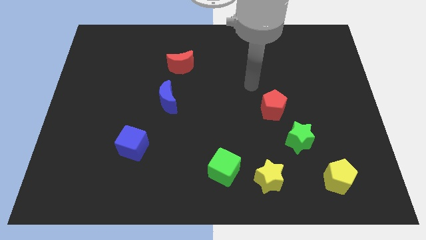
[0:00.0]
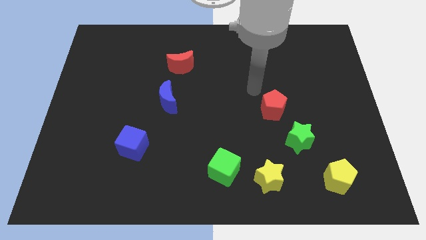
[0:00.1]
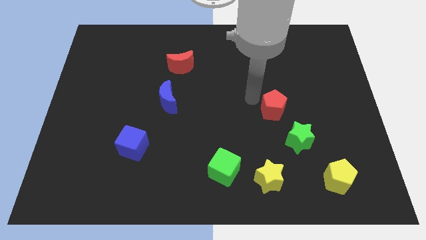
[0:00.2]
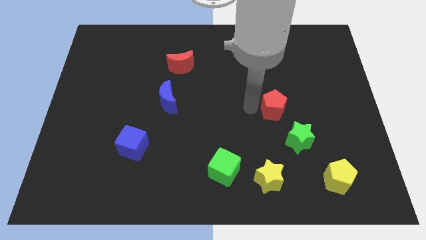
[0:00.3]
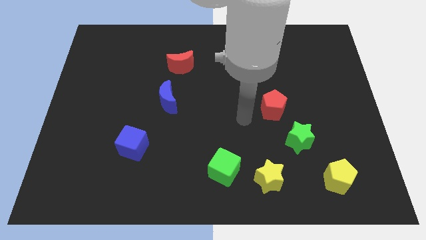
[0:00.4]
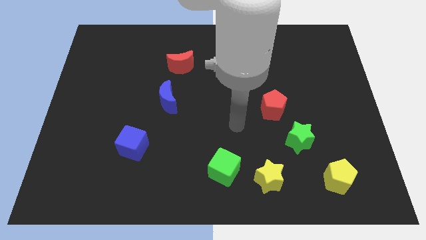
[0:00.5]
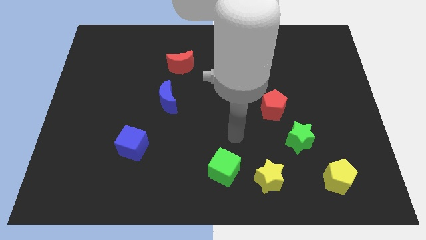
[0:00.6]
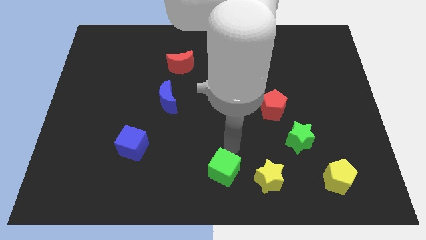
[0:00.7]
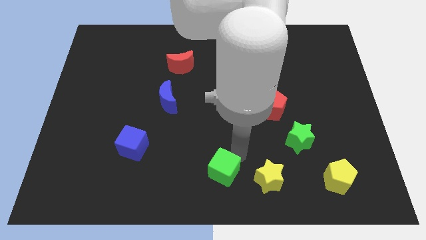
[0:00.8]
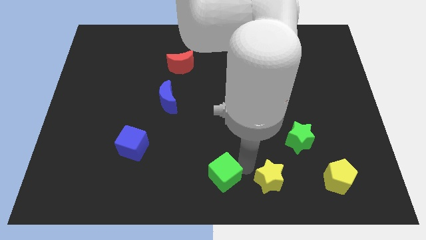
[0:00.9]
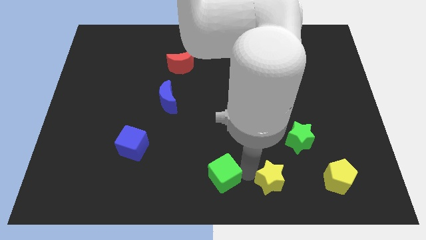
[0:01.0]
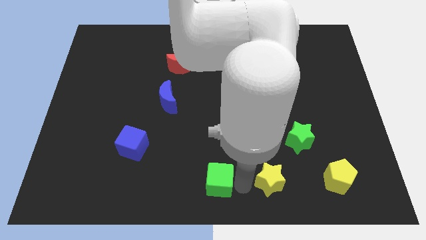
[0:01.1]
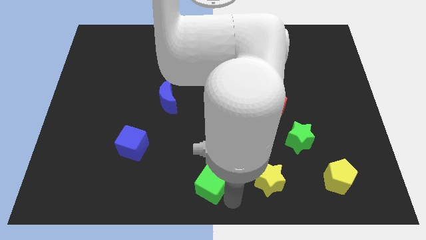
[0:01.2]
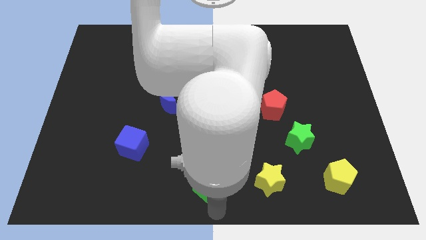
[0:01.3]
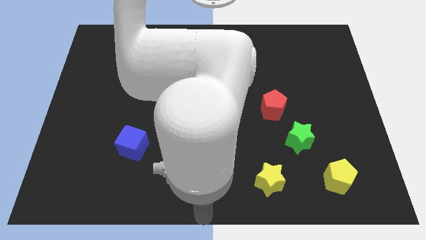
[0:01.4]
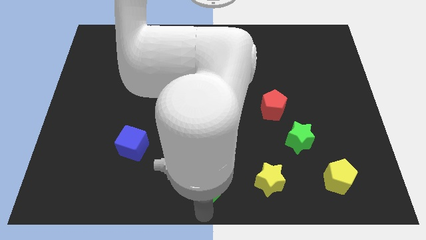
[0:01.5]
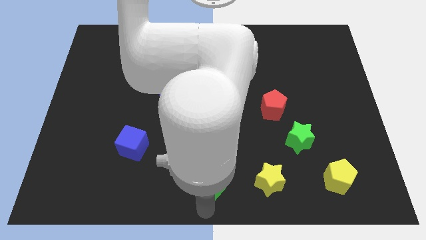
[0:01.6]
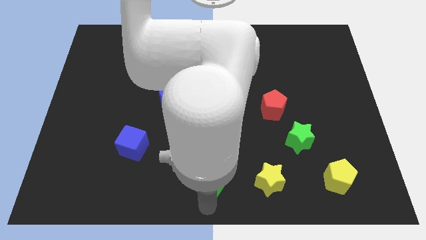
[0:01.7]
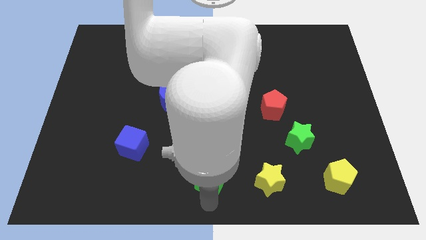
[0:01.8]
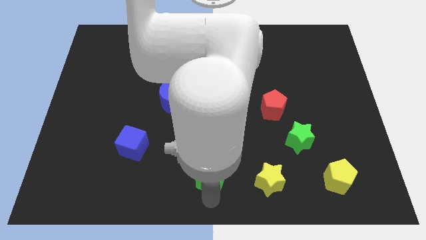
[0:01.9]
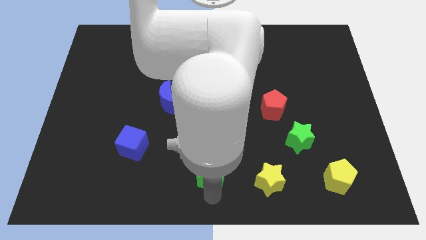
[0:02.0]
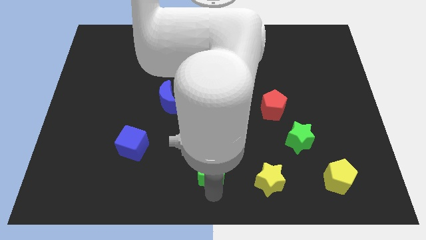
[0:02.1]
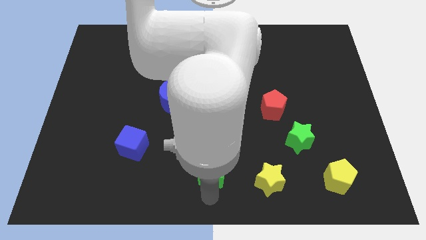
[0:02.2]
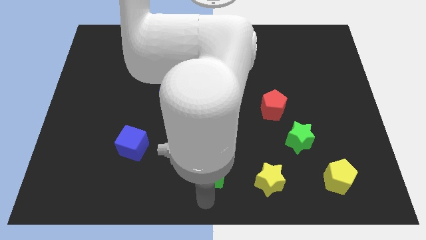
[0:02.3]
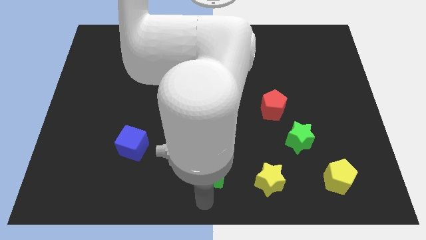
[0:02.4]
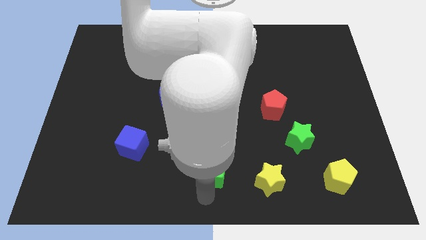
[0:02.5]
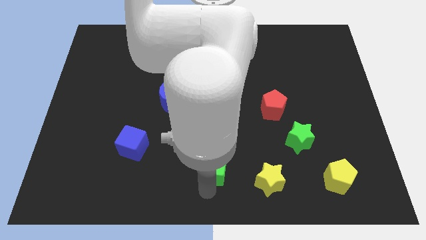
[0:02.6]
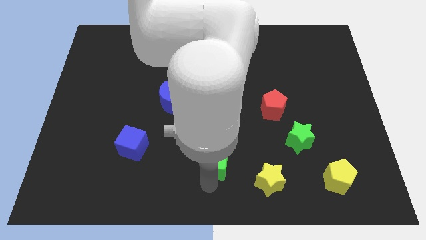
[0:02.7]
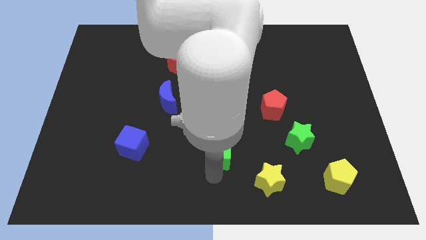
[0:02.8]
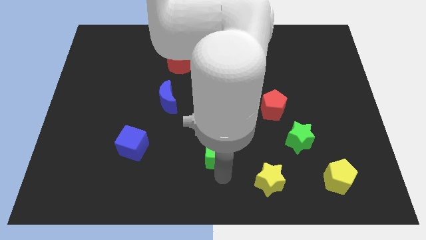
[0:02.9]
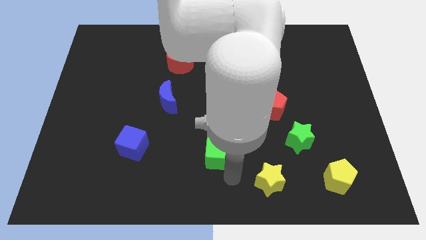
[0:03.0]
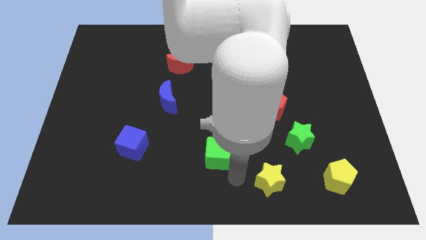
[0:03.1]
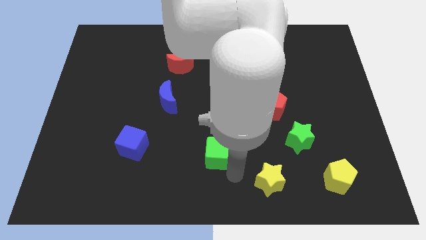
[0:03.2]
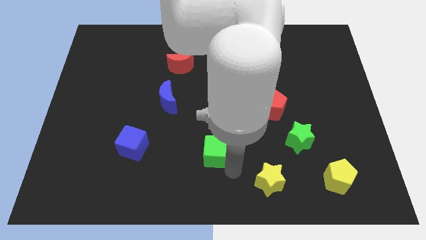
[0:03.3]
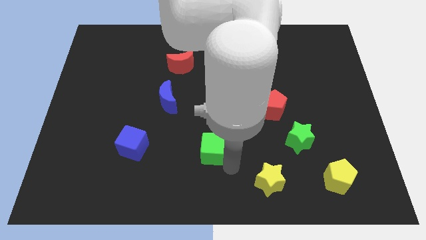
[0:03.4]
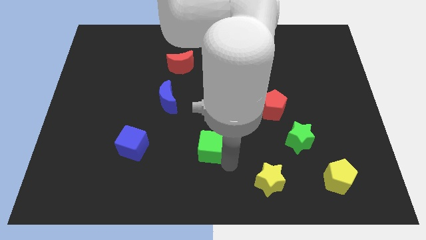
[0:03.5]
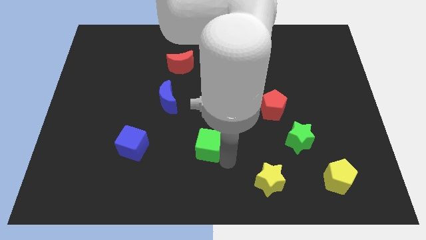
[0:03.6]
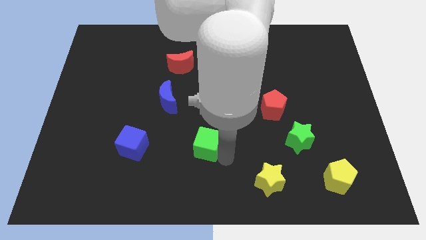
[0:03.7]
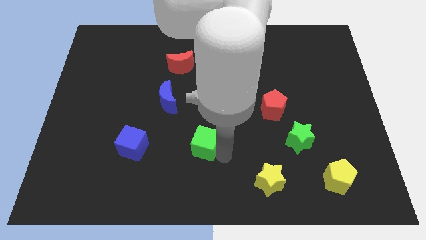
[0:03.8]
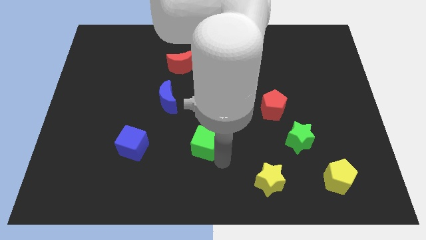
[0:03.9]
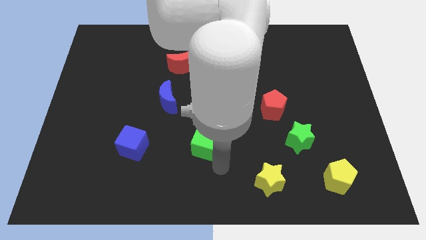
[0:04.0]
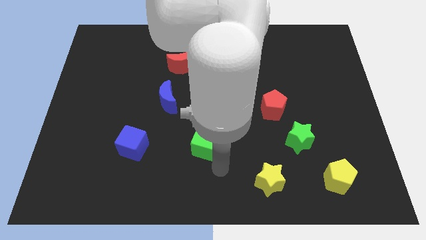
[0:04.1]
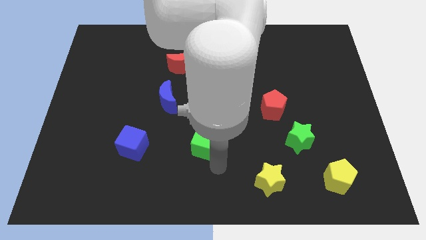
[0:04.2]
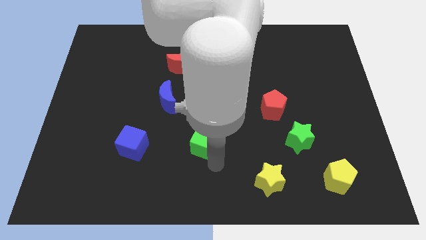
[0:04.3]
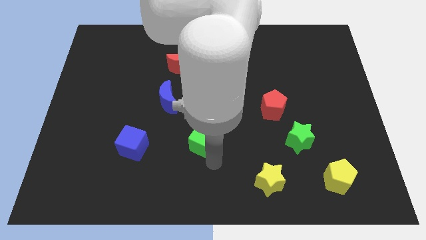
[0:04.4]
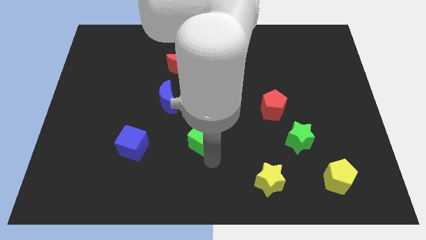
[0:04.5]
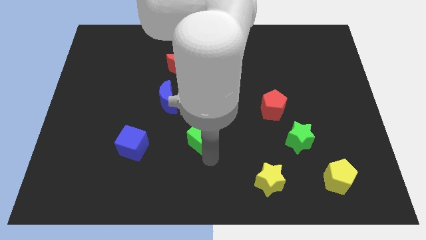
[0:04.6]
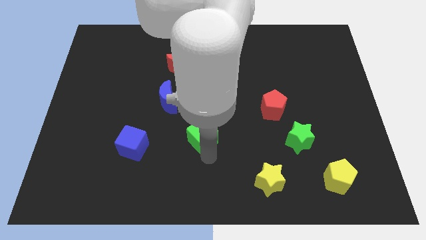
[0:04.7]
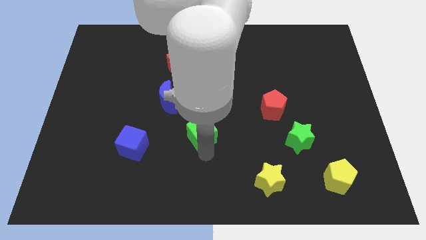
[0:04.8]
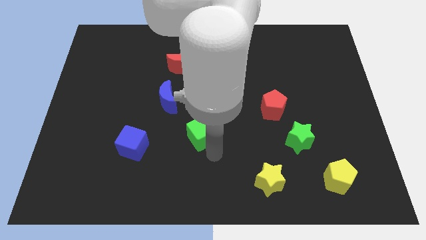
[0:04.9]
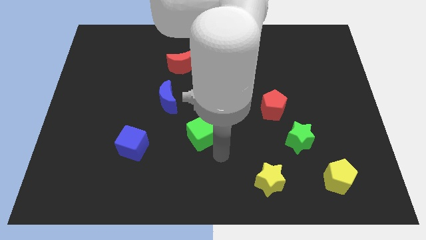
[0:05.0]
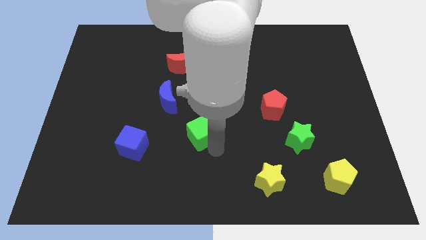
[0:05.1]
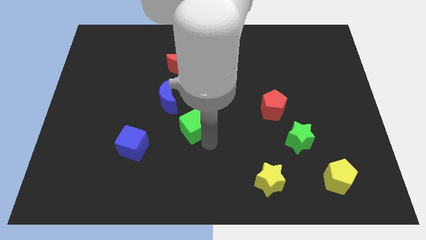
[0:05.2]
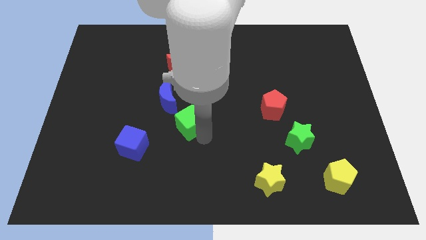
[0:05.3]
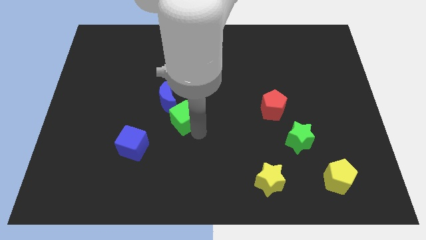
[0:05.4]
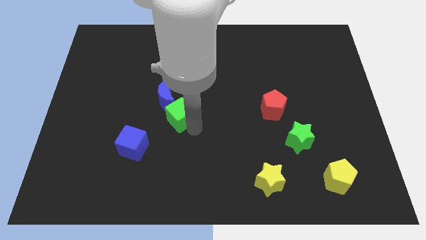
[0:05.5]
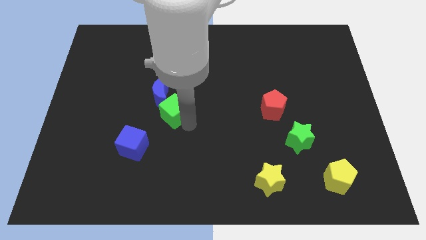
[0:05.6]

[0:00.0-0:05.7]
put the green cube next to the blue moon

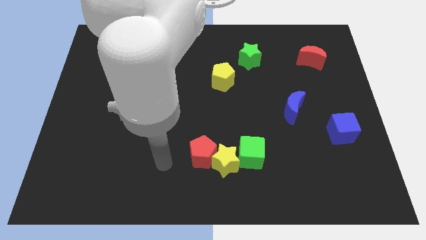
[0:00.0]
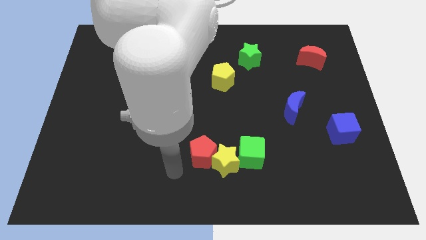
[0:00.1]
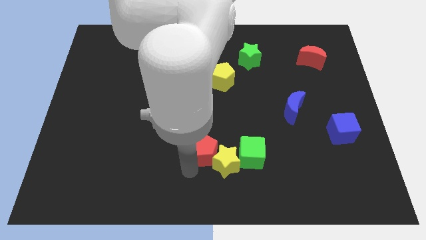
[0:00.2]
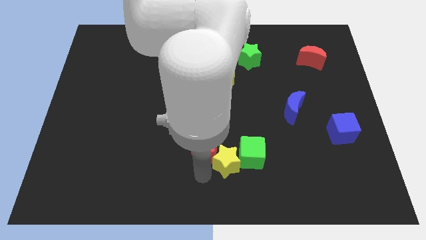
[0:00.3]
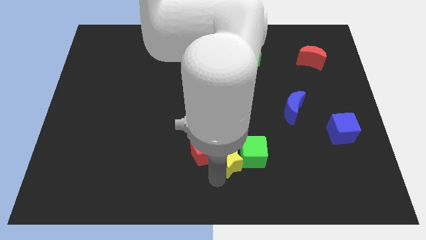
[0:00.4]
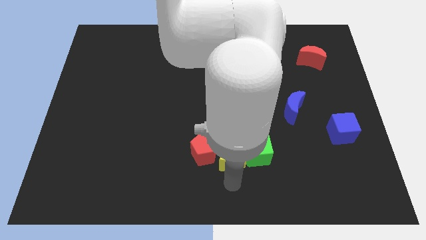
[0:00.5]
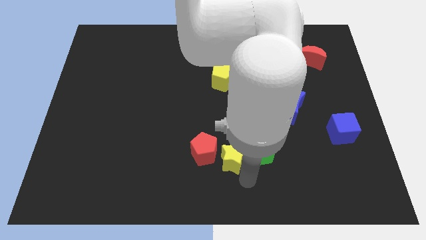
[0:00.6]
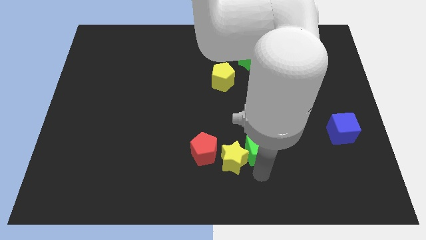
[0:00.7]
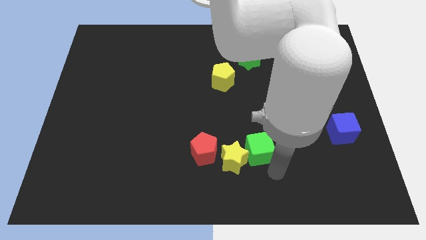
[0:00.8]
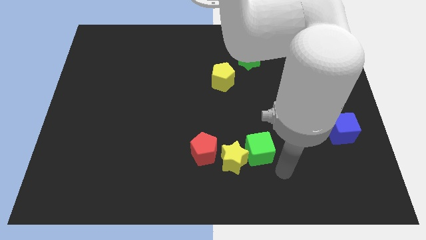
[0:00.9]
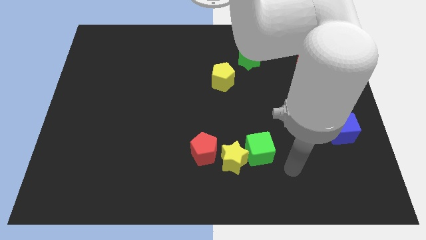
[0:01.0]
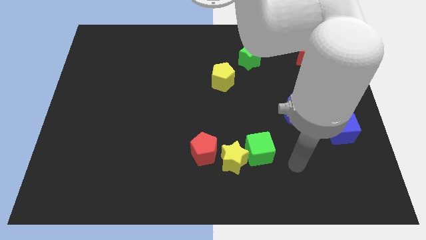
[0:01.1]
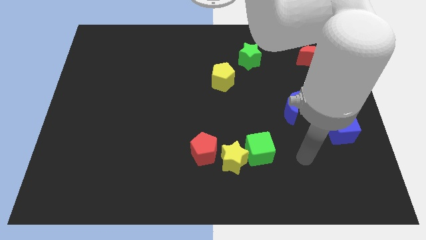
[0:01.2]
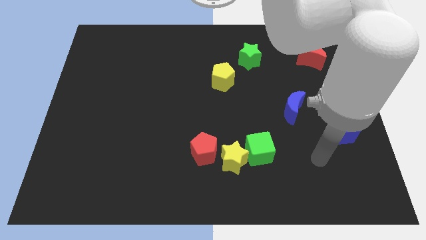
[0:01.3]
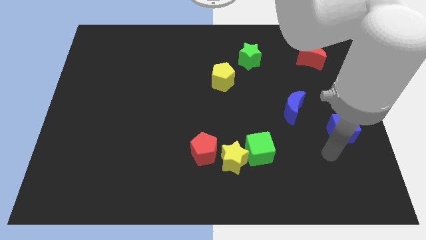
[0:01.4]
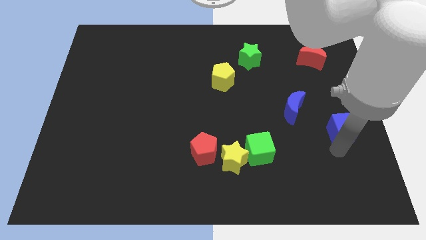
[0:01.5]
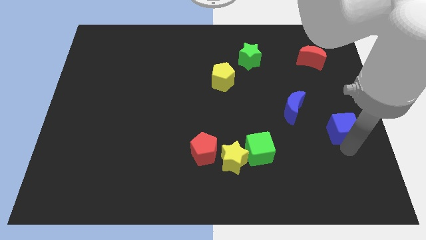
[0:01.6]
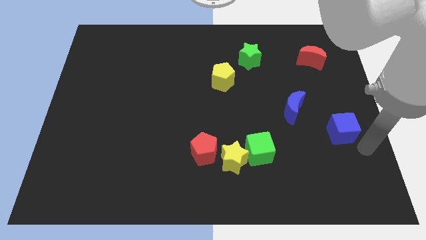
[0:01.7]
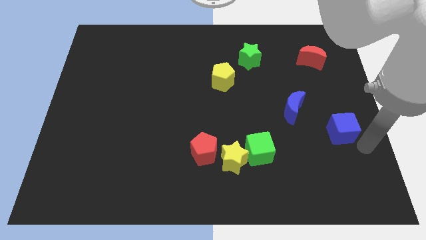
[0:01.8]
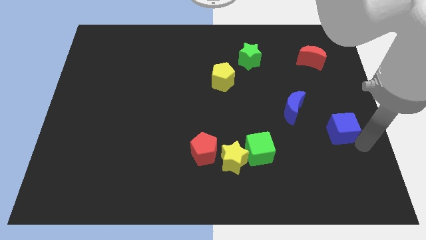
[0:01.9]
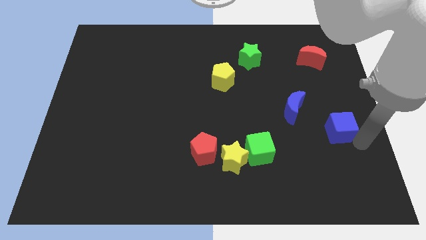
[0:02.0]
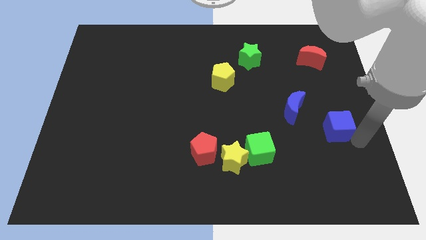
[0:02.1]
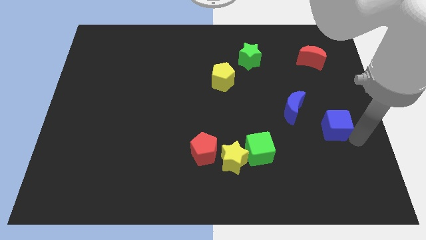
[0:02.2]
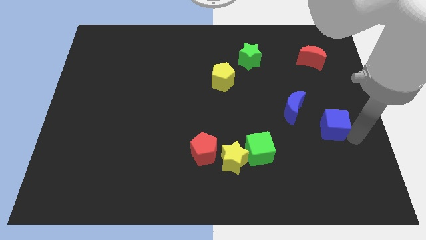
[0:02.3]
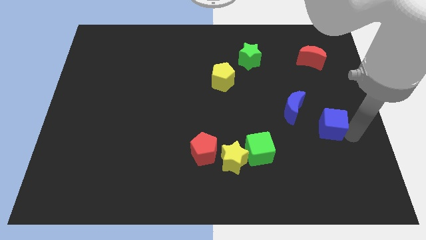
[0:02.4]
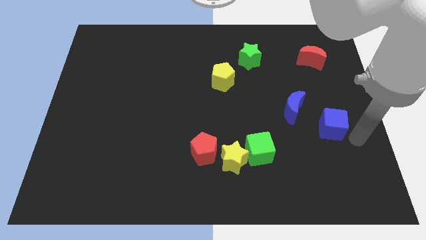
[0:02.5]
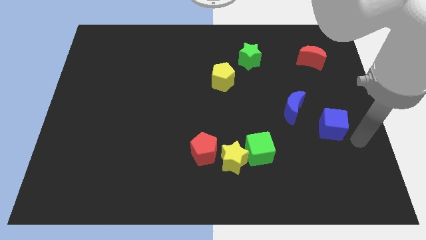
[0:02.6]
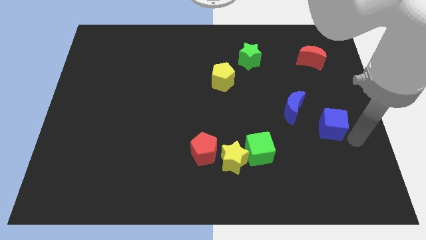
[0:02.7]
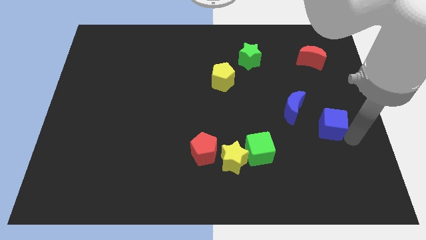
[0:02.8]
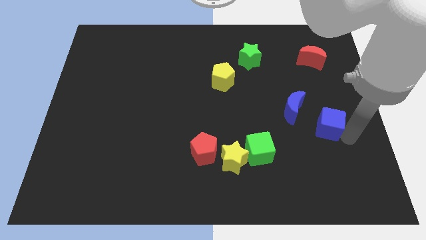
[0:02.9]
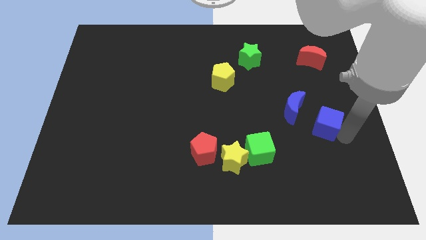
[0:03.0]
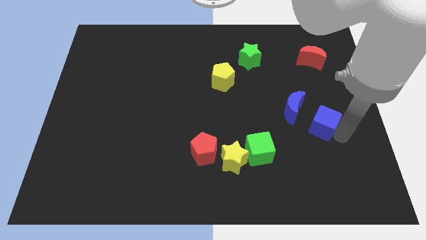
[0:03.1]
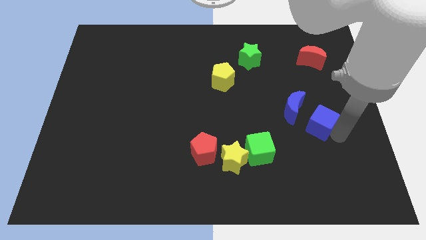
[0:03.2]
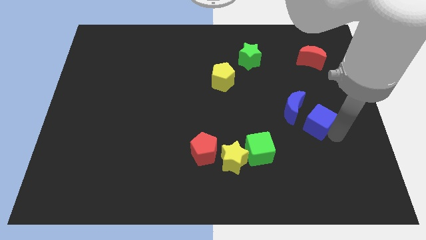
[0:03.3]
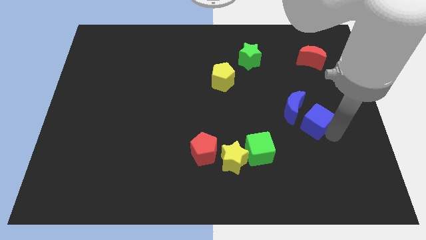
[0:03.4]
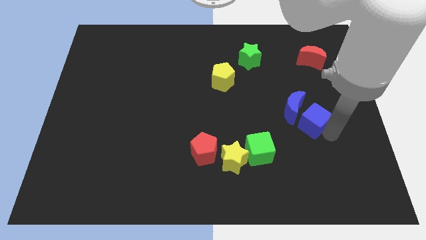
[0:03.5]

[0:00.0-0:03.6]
slide the blue cube to the blue moon
